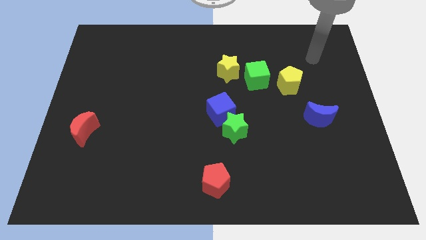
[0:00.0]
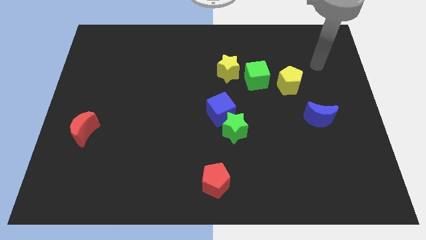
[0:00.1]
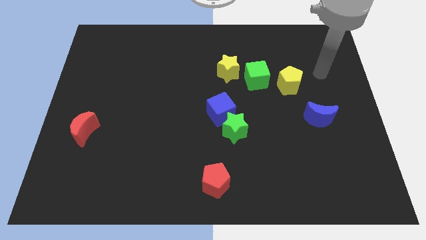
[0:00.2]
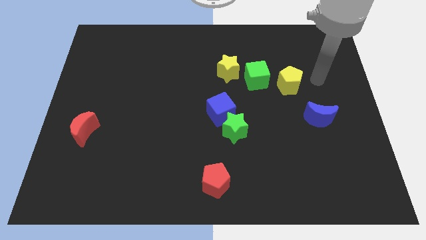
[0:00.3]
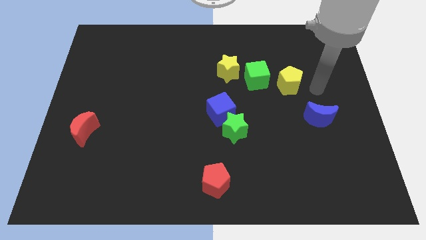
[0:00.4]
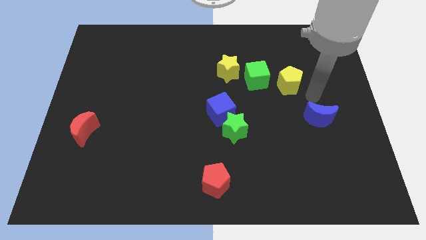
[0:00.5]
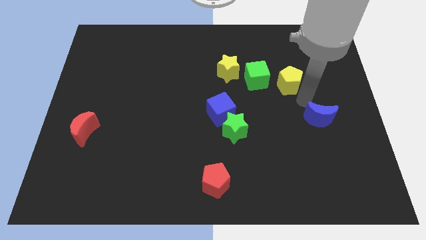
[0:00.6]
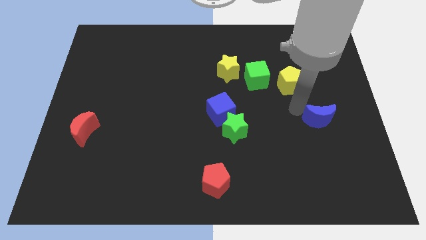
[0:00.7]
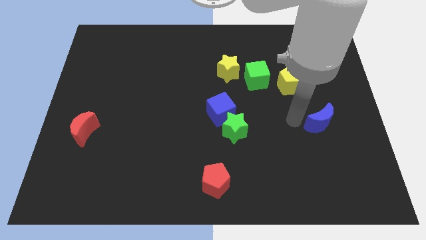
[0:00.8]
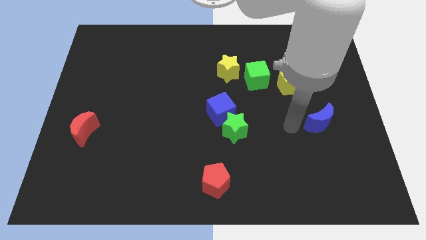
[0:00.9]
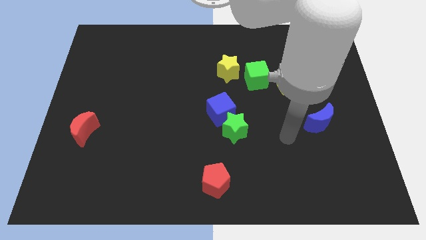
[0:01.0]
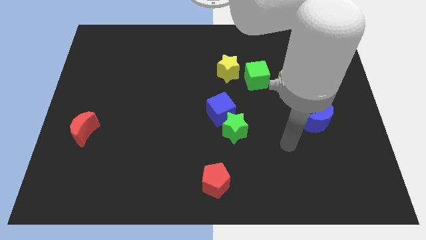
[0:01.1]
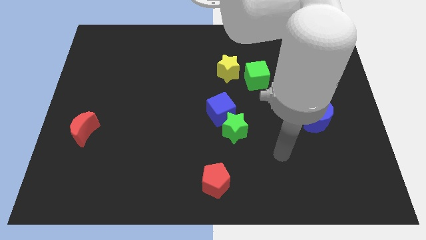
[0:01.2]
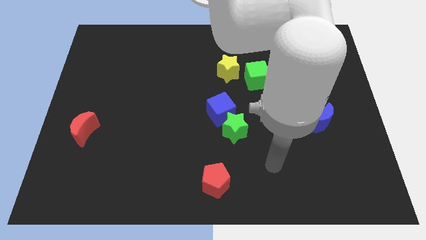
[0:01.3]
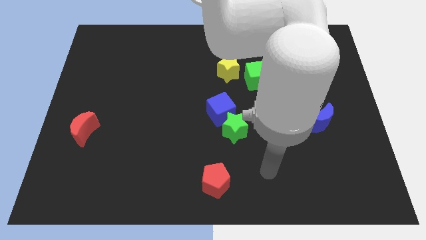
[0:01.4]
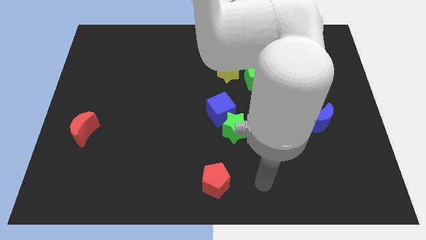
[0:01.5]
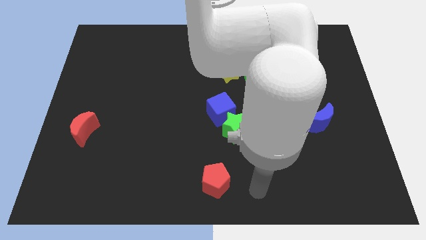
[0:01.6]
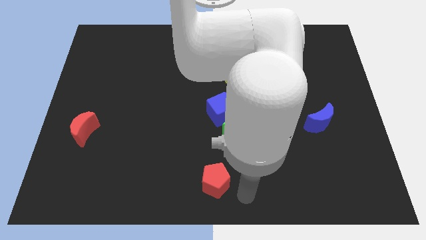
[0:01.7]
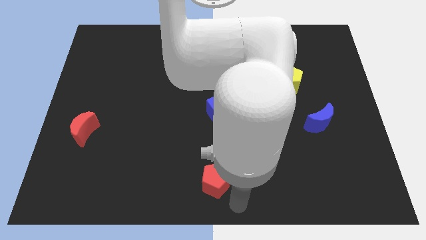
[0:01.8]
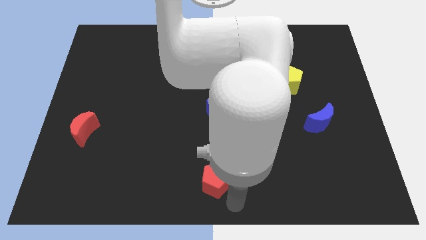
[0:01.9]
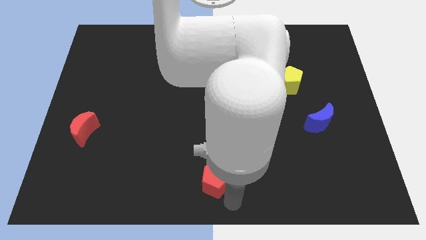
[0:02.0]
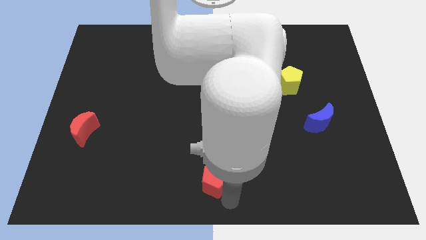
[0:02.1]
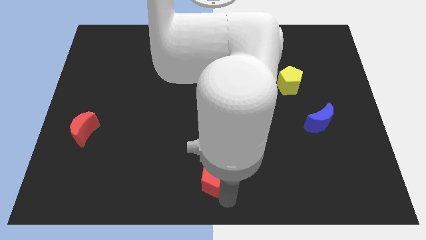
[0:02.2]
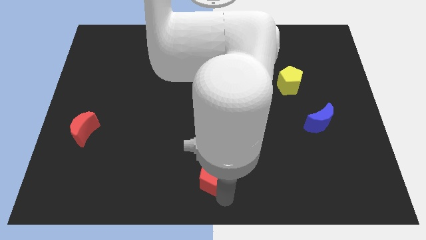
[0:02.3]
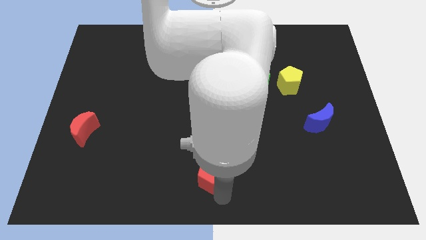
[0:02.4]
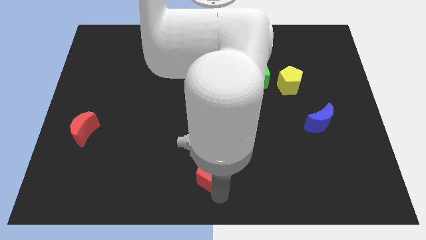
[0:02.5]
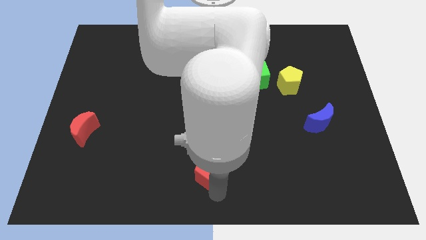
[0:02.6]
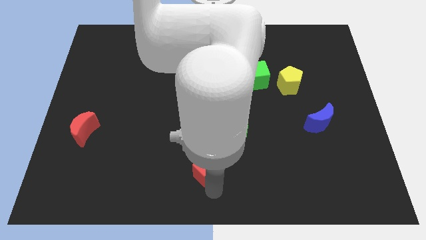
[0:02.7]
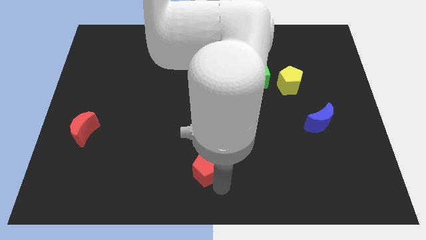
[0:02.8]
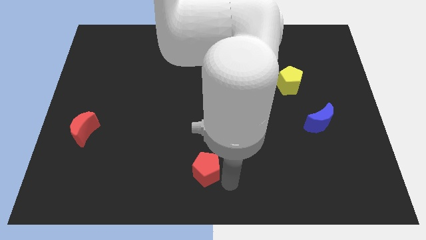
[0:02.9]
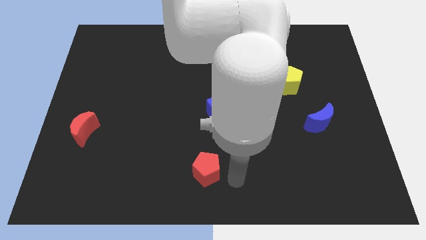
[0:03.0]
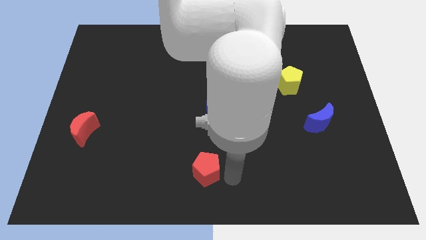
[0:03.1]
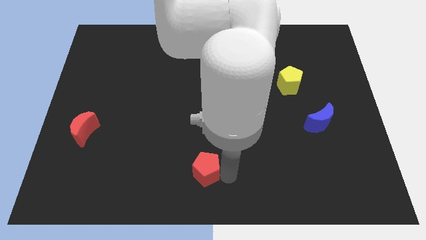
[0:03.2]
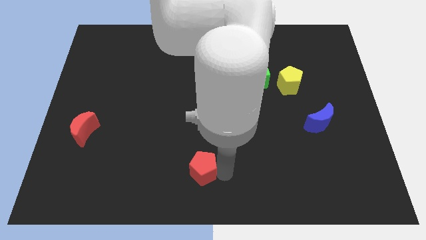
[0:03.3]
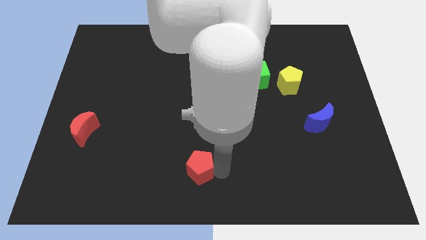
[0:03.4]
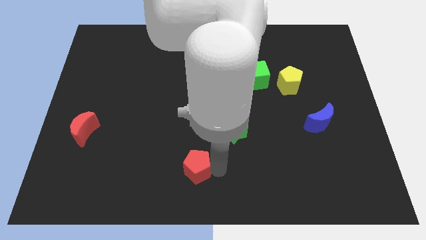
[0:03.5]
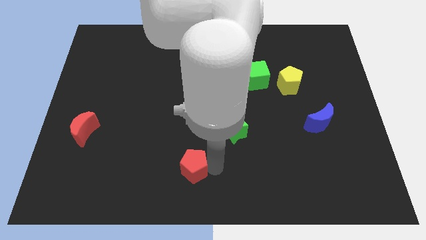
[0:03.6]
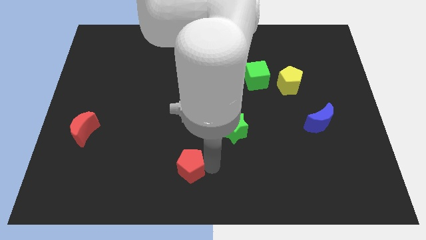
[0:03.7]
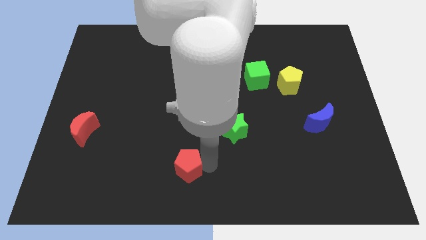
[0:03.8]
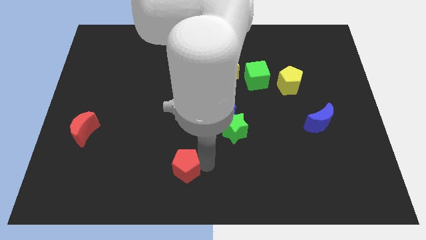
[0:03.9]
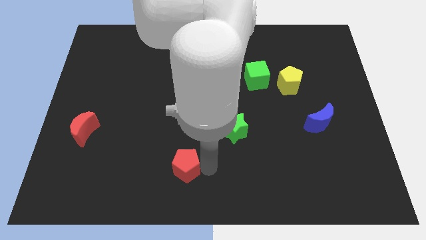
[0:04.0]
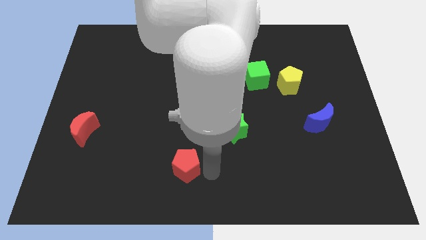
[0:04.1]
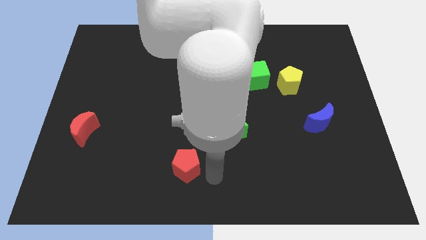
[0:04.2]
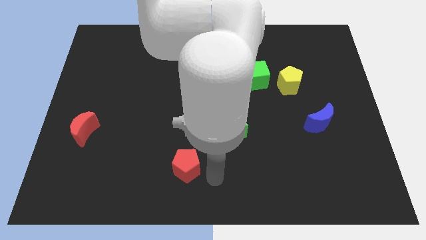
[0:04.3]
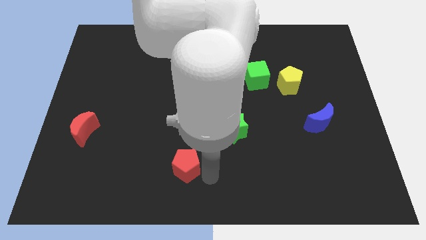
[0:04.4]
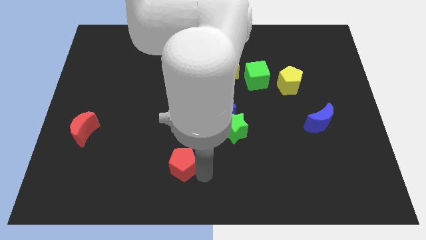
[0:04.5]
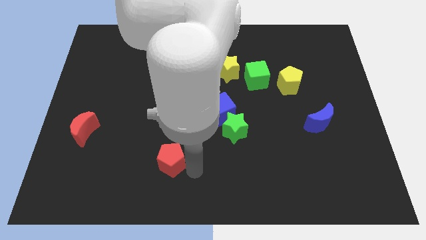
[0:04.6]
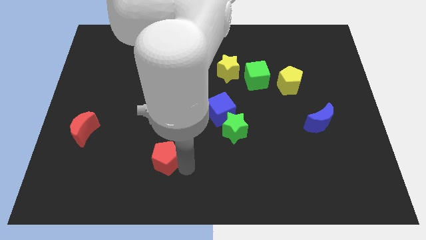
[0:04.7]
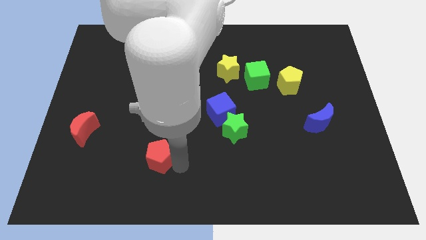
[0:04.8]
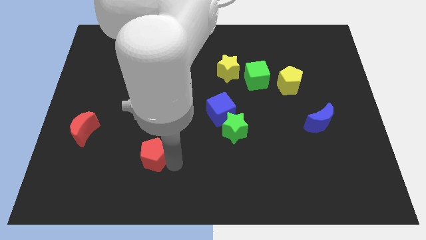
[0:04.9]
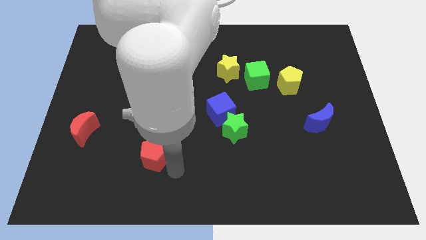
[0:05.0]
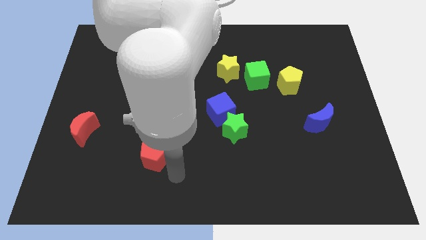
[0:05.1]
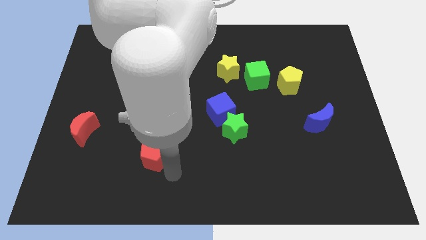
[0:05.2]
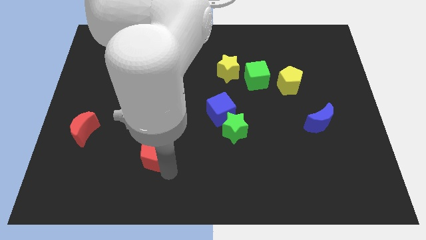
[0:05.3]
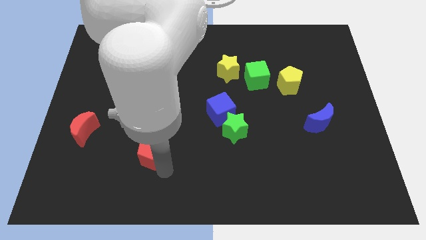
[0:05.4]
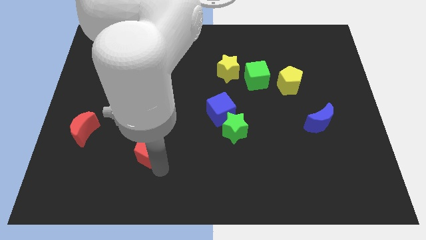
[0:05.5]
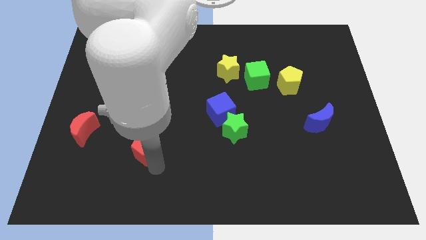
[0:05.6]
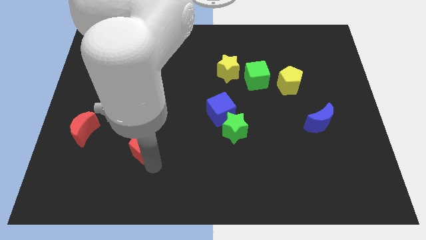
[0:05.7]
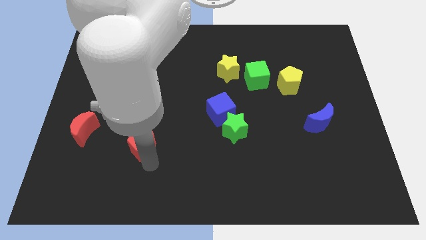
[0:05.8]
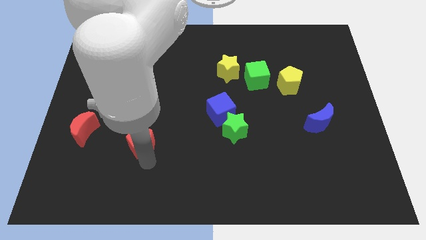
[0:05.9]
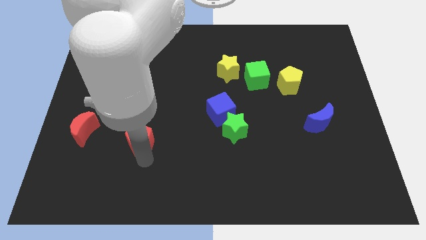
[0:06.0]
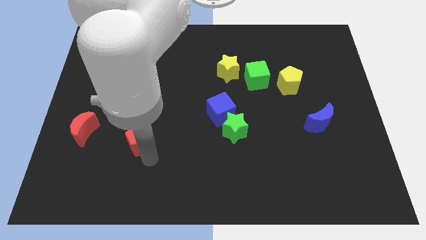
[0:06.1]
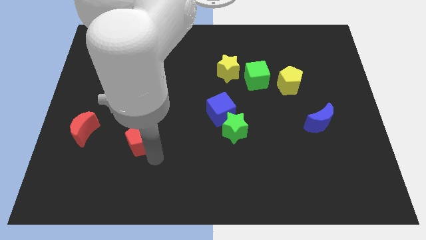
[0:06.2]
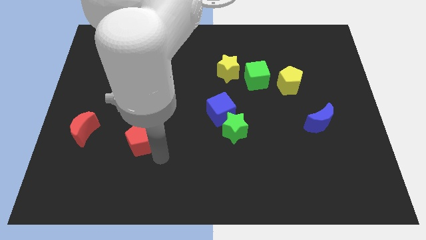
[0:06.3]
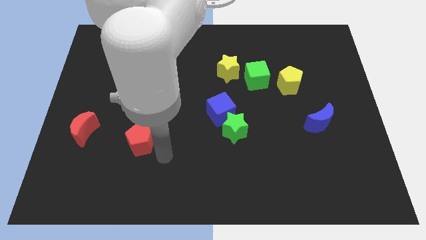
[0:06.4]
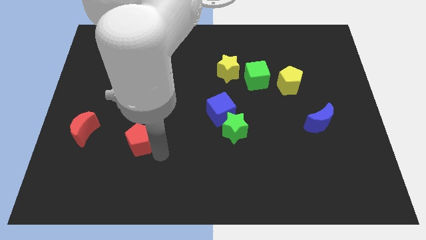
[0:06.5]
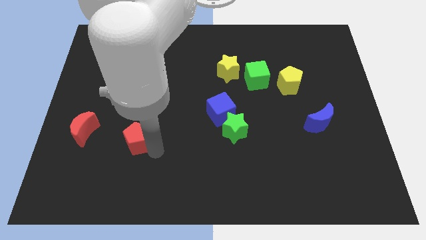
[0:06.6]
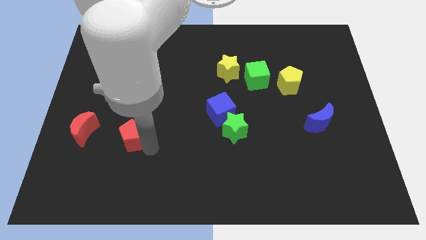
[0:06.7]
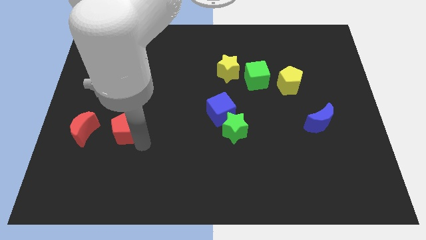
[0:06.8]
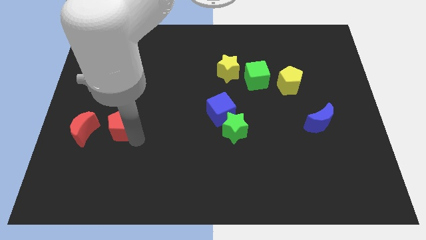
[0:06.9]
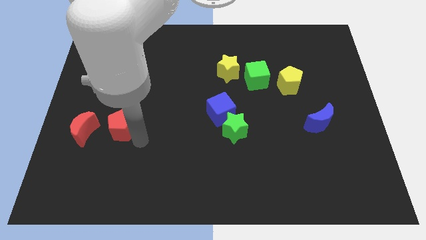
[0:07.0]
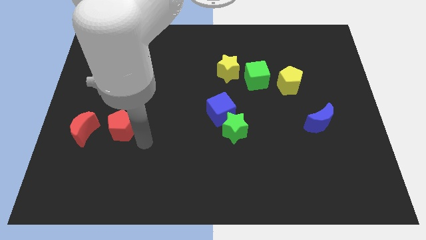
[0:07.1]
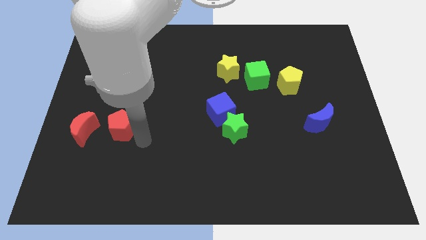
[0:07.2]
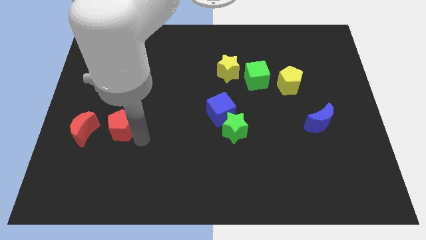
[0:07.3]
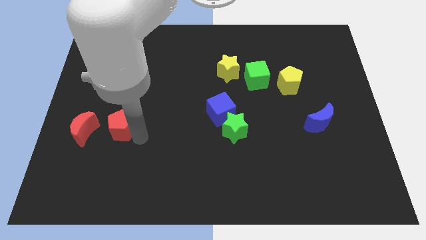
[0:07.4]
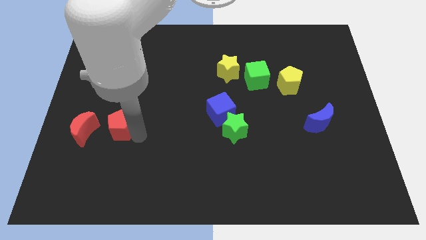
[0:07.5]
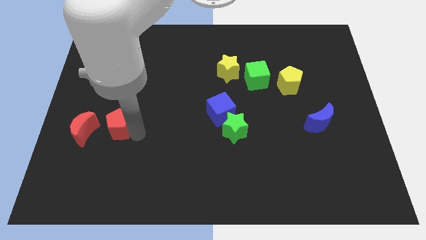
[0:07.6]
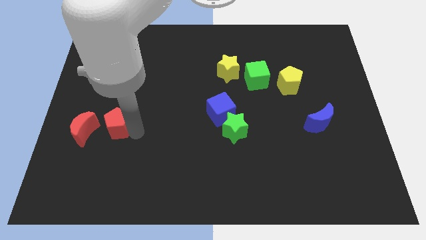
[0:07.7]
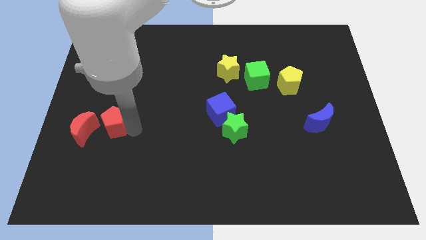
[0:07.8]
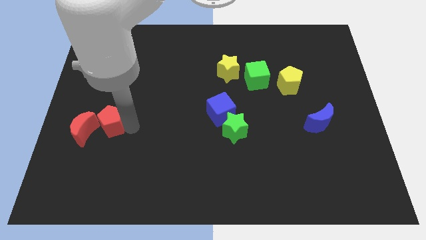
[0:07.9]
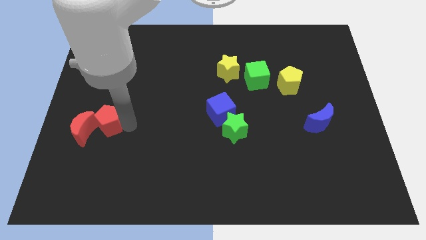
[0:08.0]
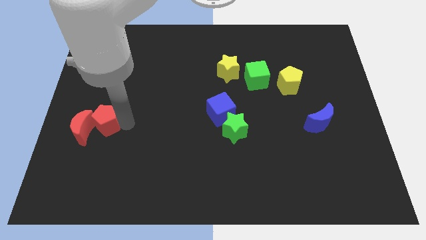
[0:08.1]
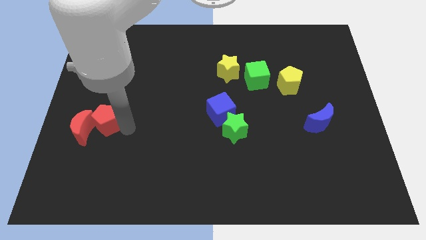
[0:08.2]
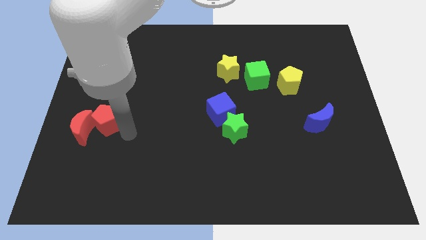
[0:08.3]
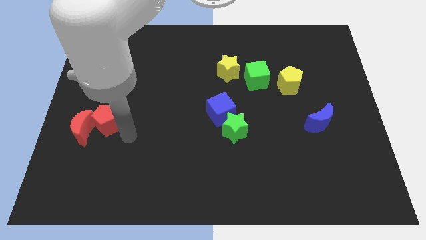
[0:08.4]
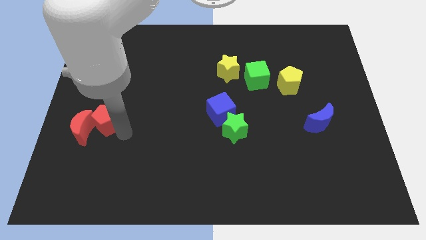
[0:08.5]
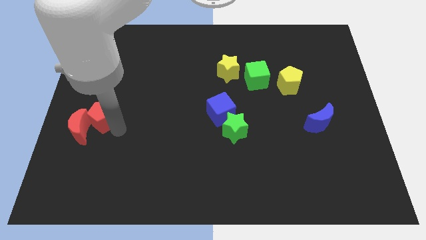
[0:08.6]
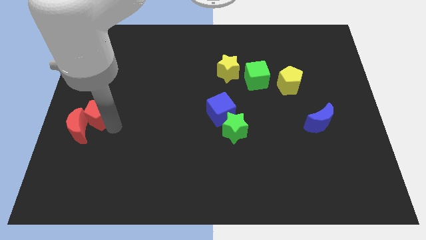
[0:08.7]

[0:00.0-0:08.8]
put the red pentagon to the left side of the board
